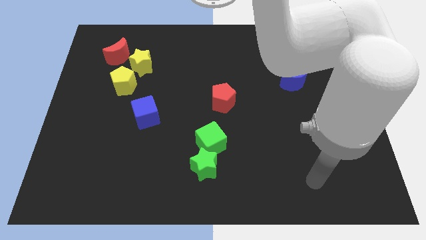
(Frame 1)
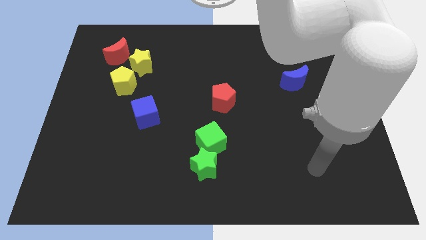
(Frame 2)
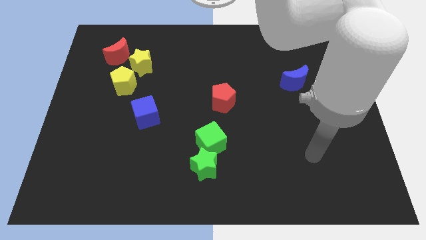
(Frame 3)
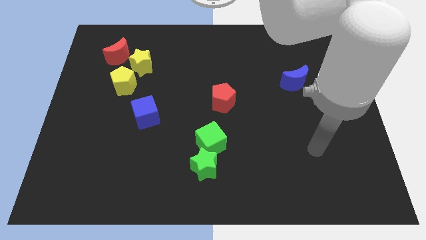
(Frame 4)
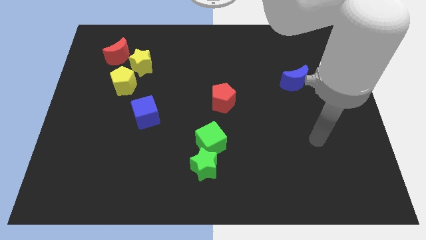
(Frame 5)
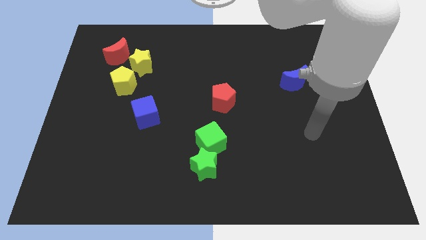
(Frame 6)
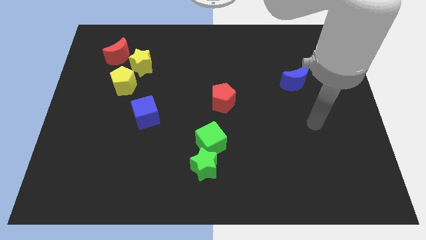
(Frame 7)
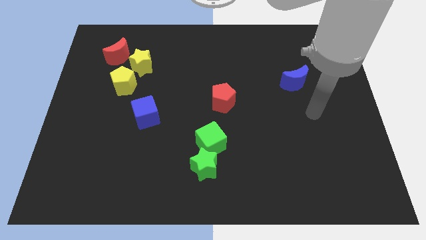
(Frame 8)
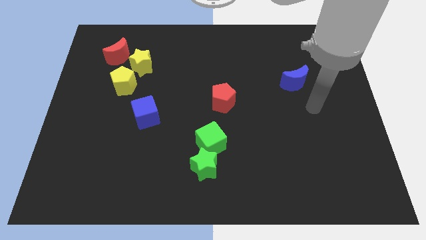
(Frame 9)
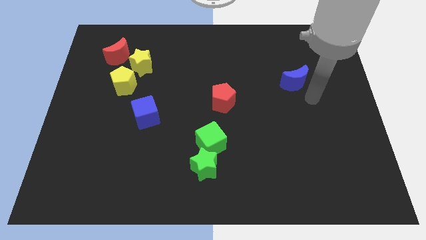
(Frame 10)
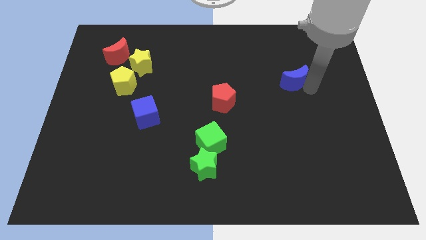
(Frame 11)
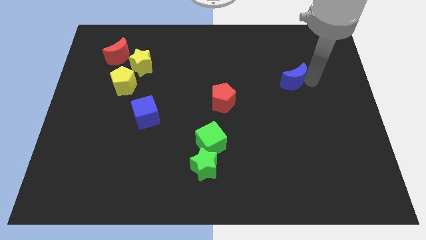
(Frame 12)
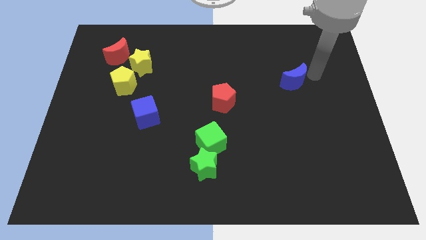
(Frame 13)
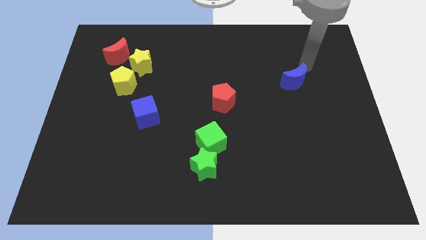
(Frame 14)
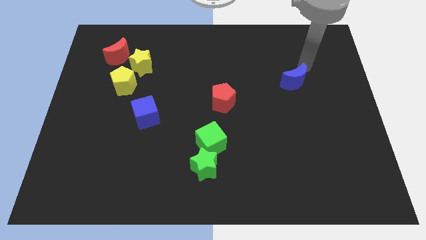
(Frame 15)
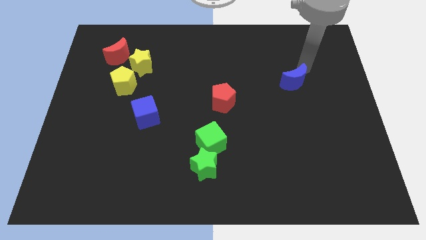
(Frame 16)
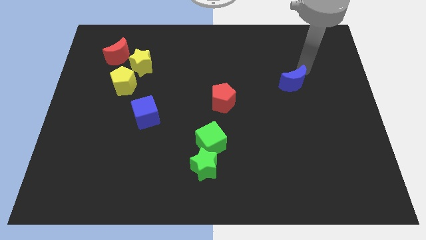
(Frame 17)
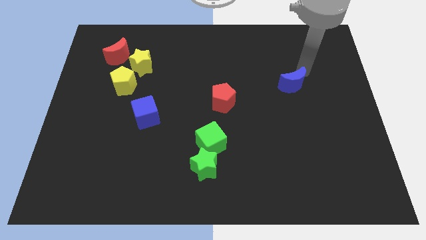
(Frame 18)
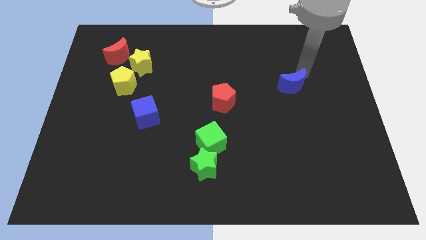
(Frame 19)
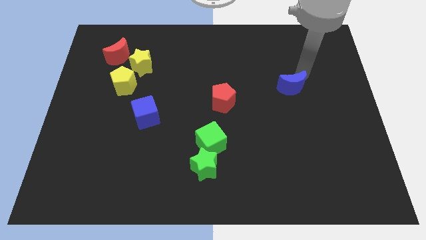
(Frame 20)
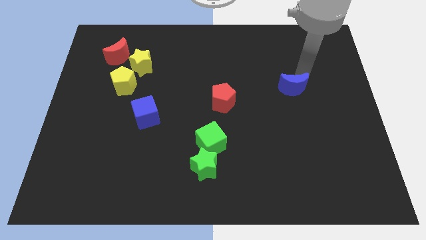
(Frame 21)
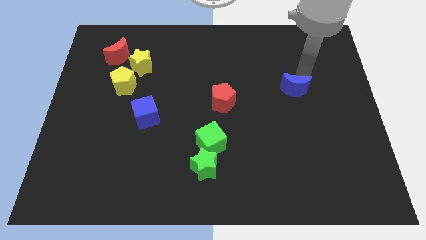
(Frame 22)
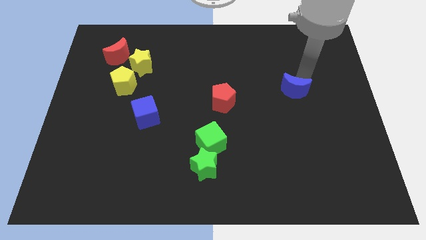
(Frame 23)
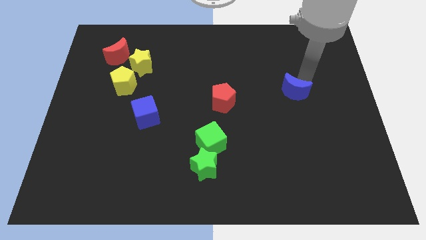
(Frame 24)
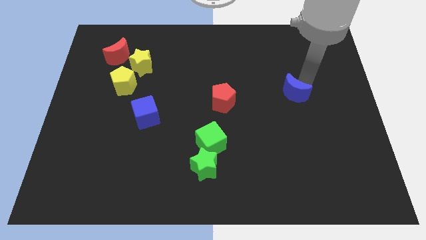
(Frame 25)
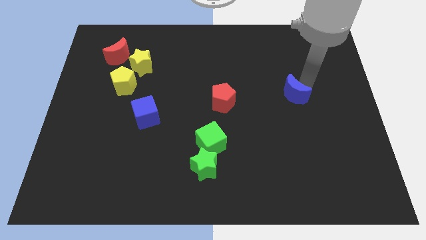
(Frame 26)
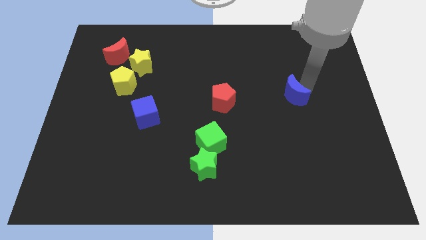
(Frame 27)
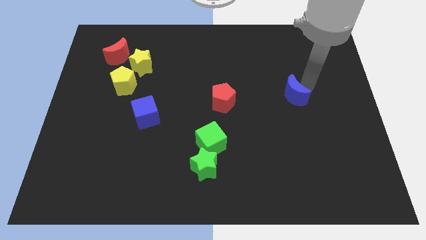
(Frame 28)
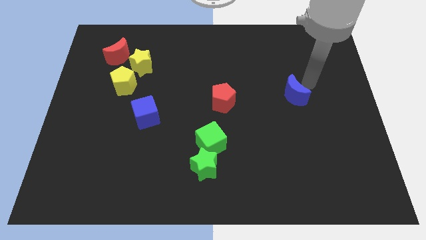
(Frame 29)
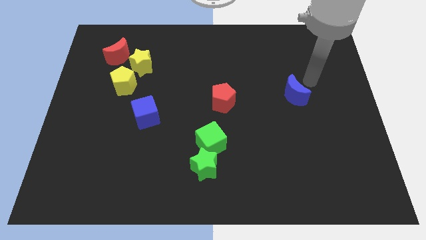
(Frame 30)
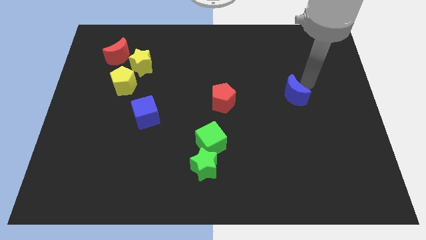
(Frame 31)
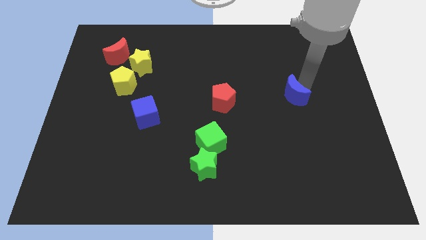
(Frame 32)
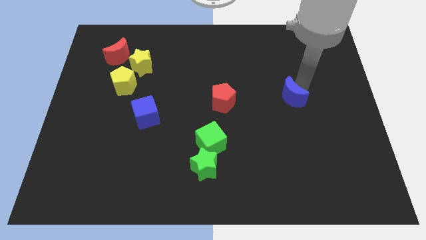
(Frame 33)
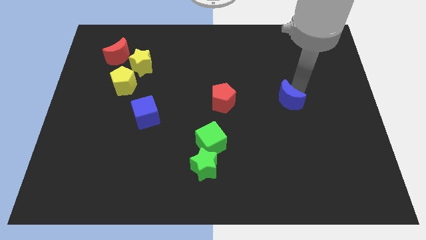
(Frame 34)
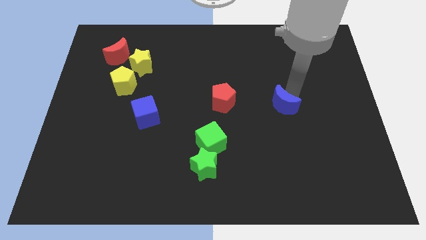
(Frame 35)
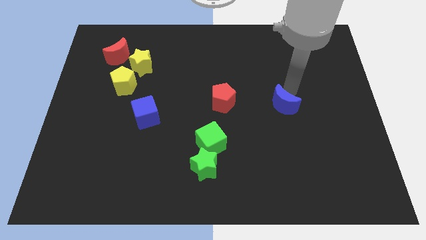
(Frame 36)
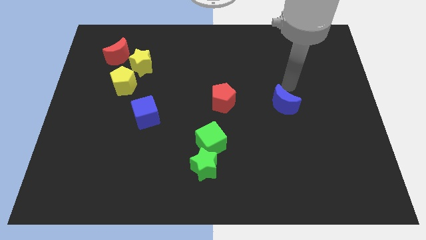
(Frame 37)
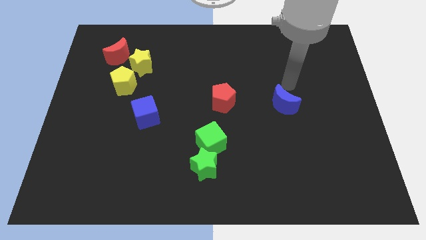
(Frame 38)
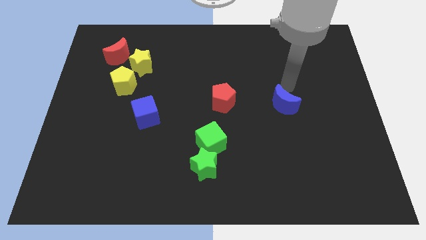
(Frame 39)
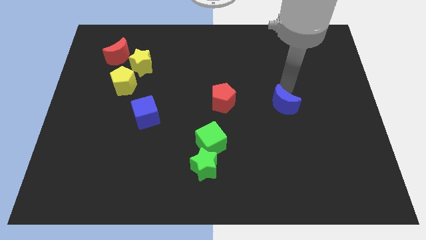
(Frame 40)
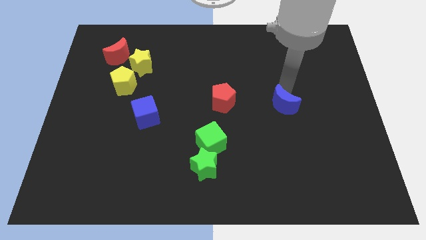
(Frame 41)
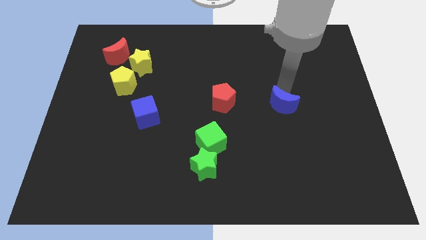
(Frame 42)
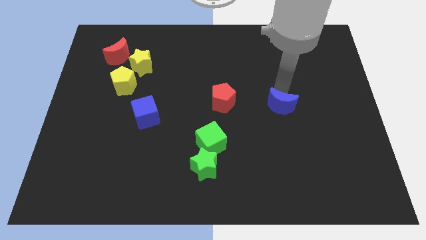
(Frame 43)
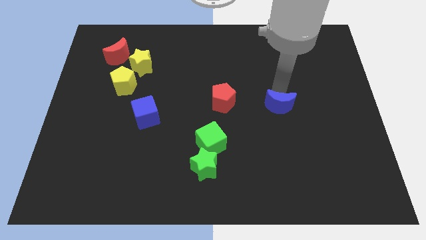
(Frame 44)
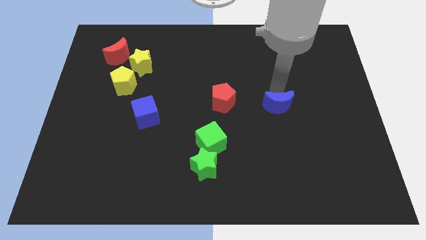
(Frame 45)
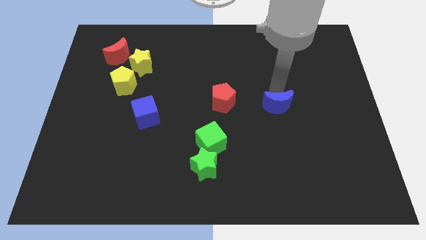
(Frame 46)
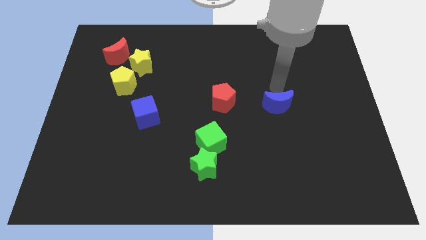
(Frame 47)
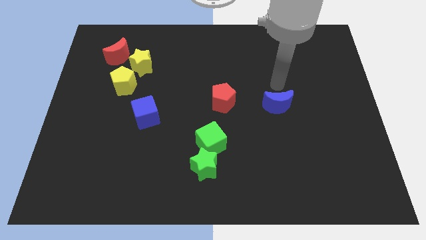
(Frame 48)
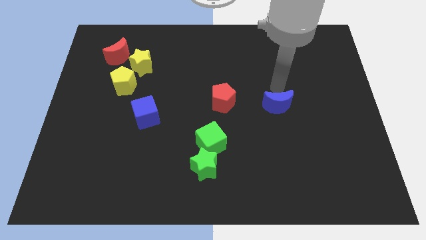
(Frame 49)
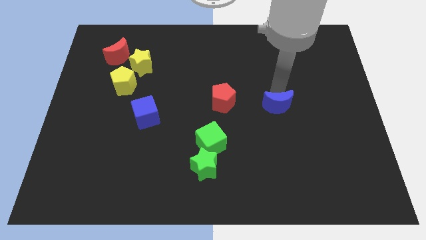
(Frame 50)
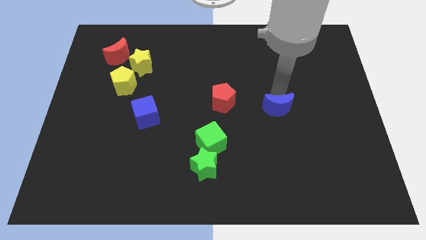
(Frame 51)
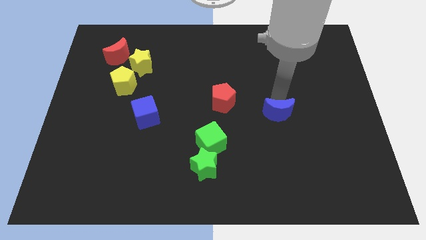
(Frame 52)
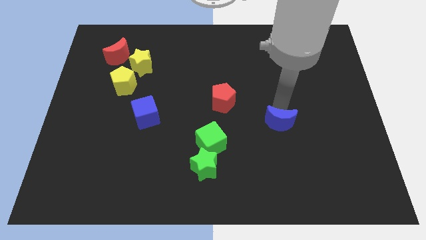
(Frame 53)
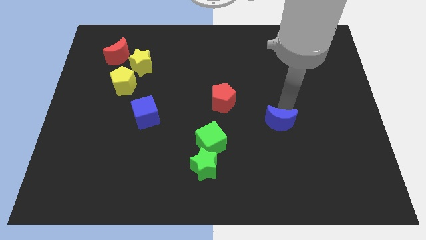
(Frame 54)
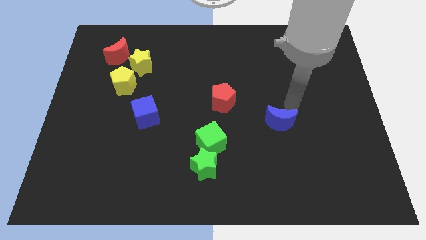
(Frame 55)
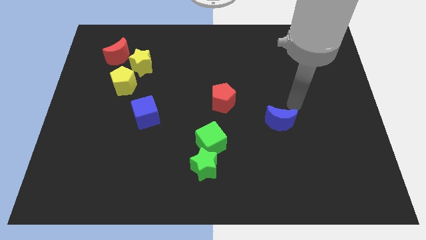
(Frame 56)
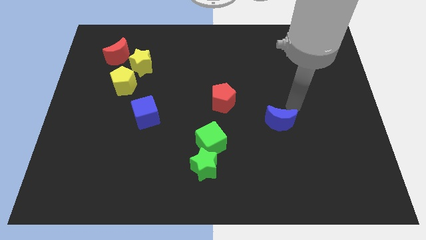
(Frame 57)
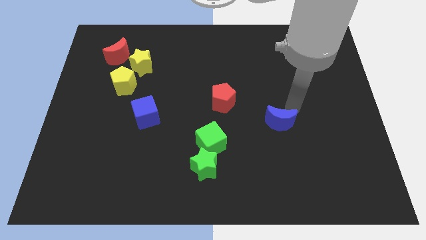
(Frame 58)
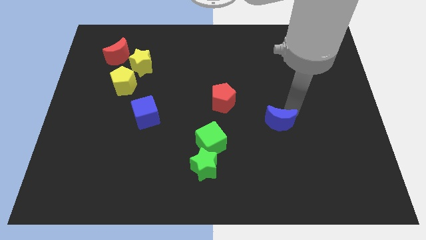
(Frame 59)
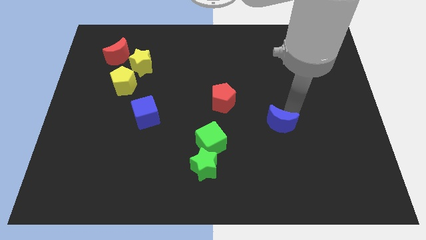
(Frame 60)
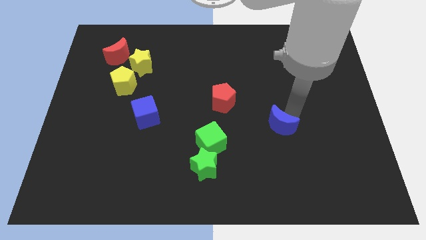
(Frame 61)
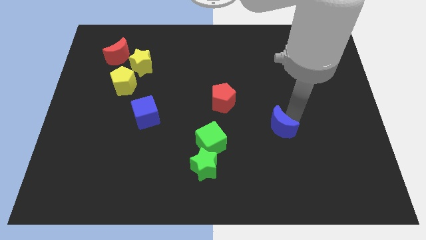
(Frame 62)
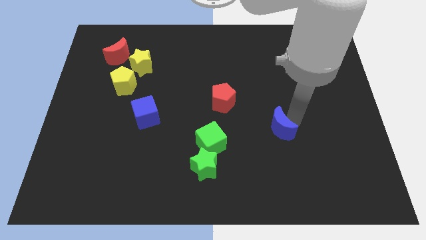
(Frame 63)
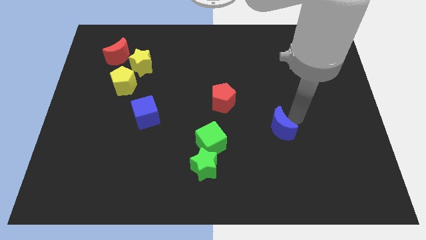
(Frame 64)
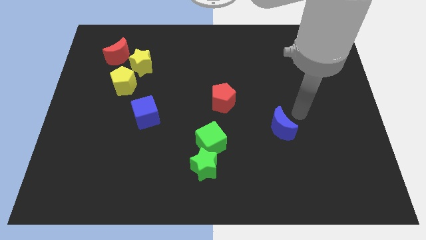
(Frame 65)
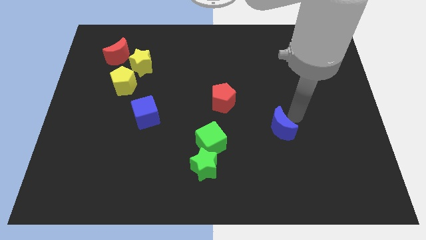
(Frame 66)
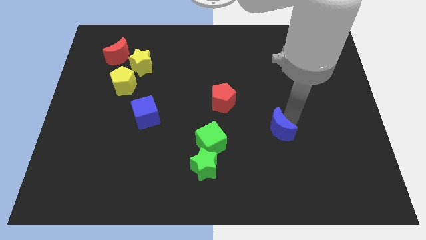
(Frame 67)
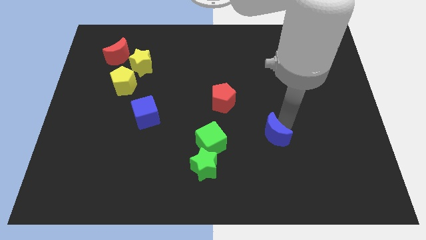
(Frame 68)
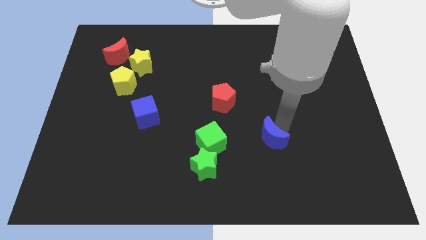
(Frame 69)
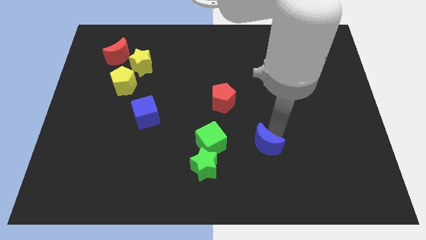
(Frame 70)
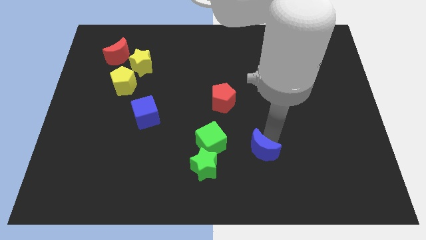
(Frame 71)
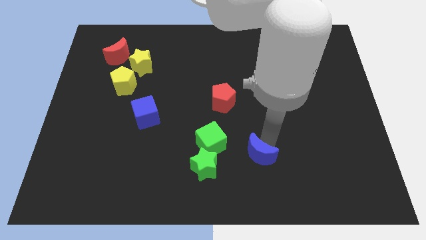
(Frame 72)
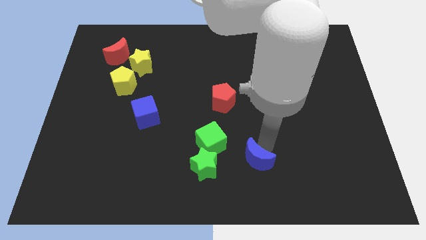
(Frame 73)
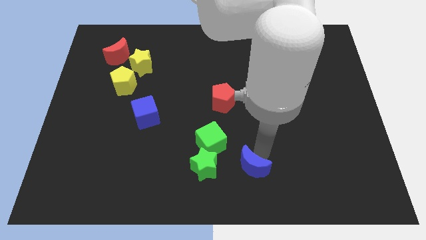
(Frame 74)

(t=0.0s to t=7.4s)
push the blue moon to the bottom
